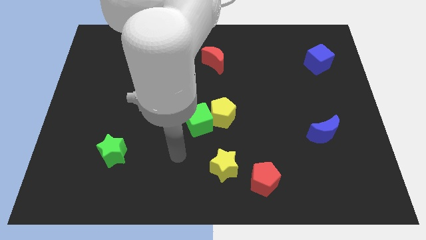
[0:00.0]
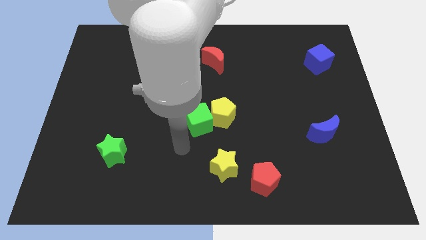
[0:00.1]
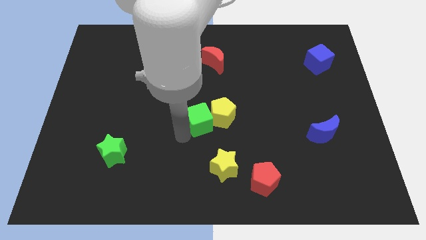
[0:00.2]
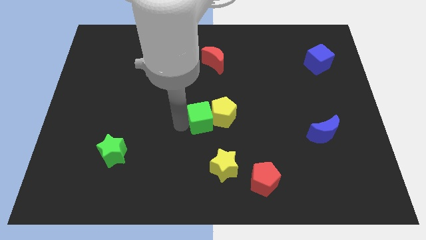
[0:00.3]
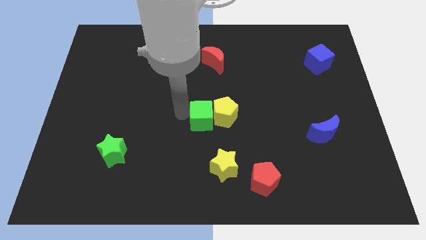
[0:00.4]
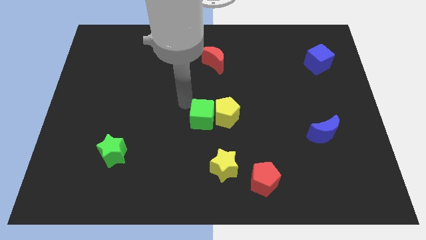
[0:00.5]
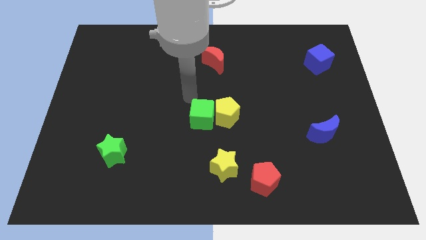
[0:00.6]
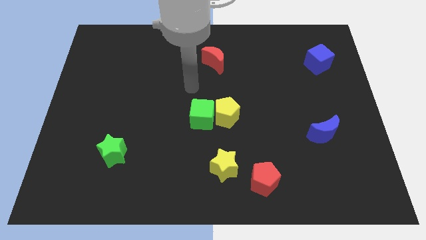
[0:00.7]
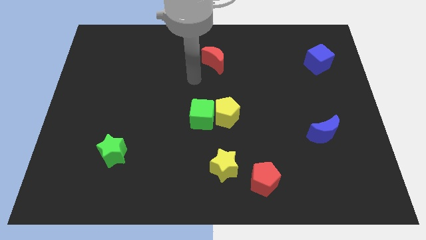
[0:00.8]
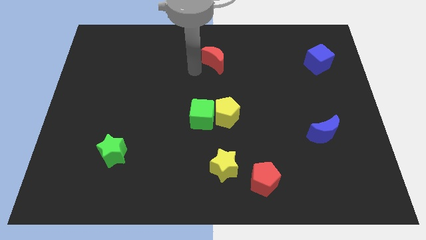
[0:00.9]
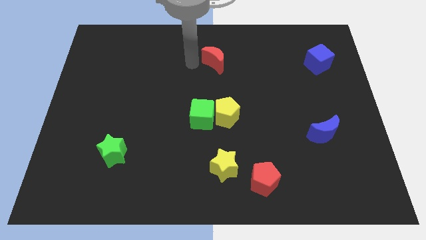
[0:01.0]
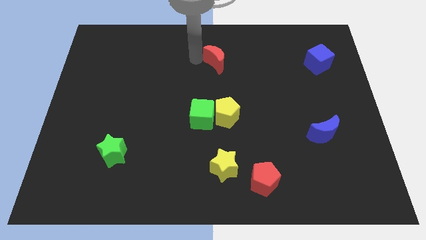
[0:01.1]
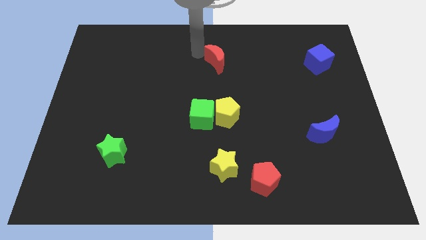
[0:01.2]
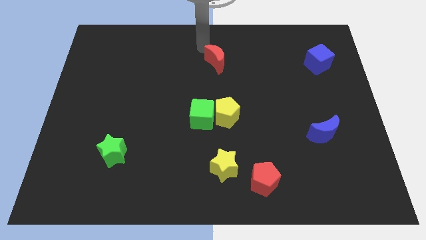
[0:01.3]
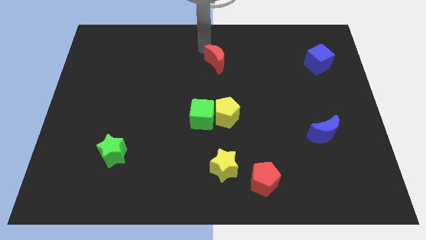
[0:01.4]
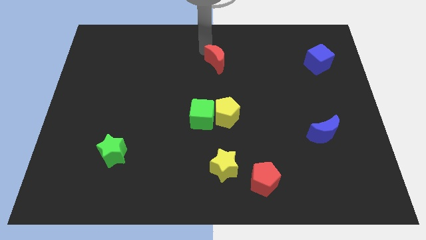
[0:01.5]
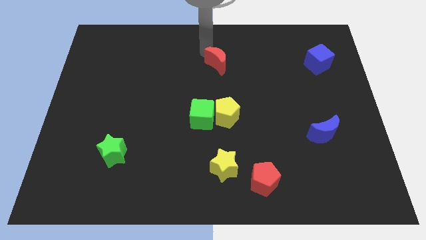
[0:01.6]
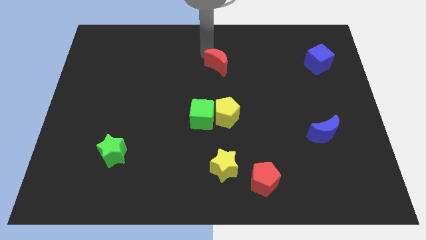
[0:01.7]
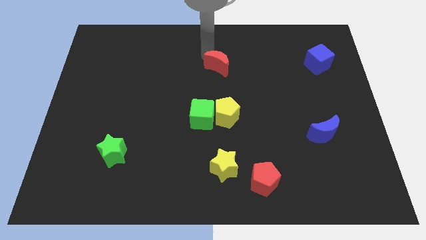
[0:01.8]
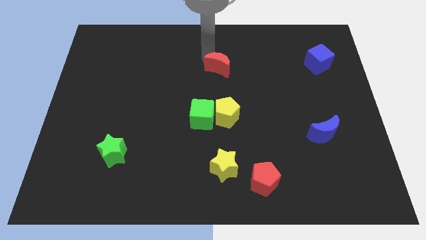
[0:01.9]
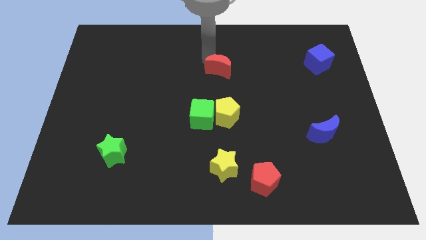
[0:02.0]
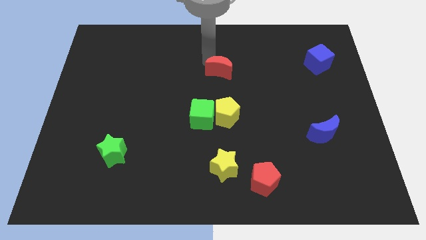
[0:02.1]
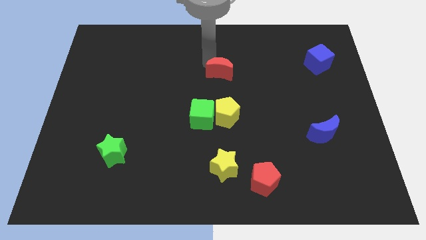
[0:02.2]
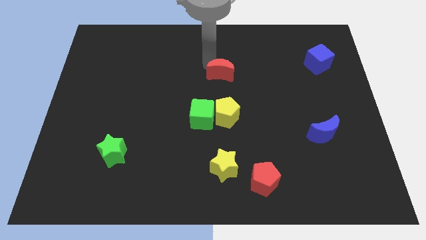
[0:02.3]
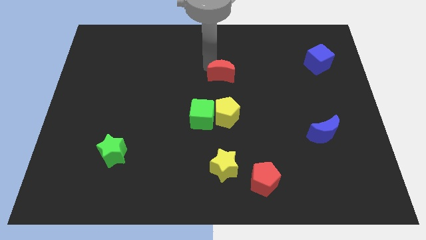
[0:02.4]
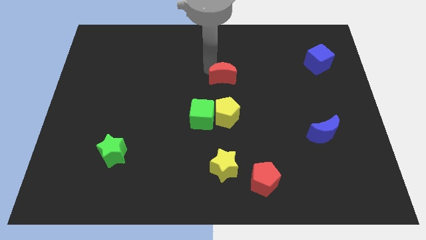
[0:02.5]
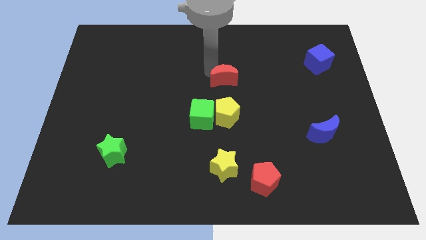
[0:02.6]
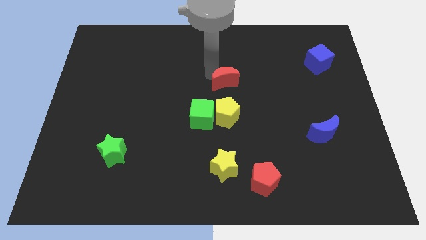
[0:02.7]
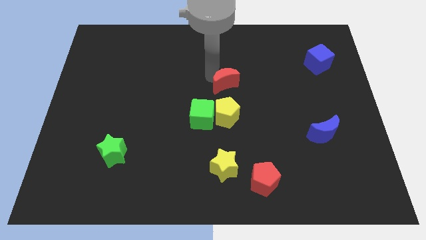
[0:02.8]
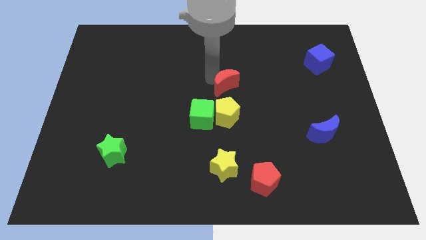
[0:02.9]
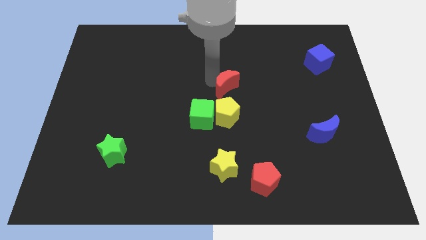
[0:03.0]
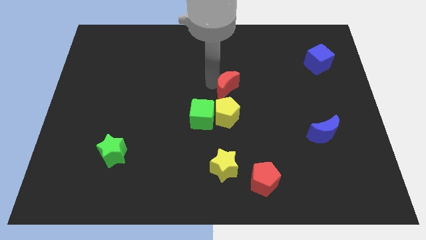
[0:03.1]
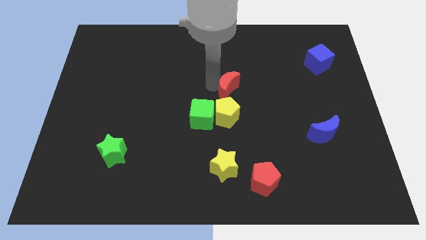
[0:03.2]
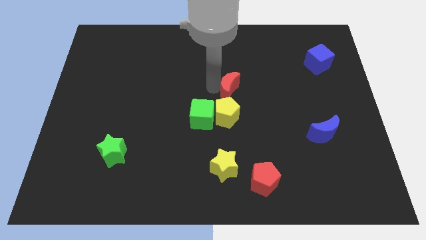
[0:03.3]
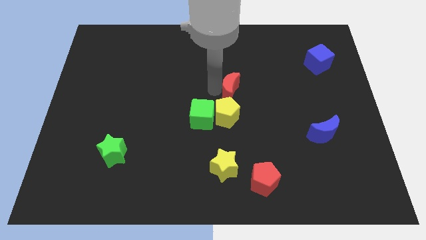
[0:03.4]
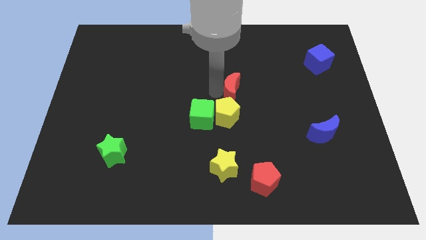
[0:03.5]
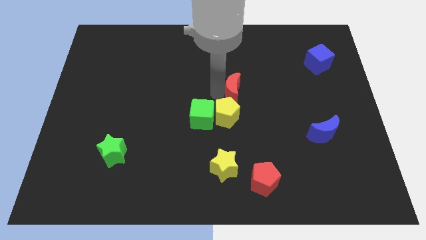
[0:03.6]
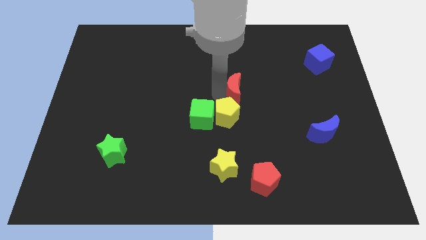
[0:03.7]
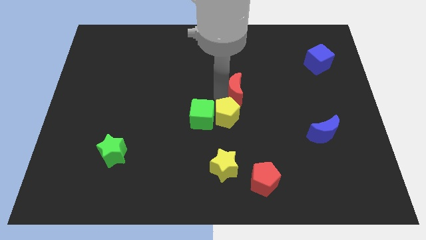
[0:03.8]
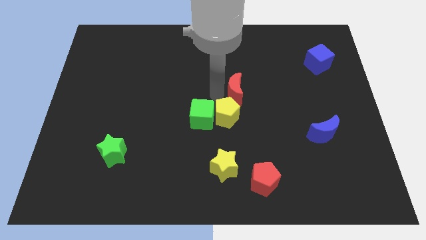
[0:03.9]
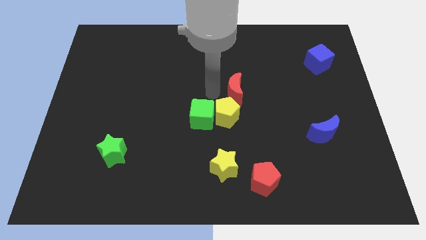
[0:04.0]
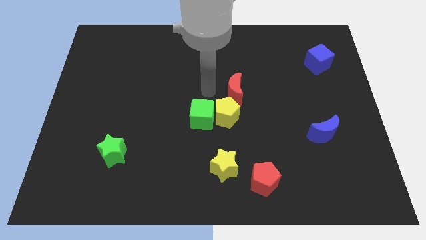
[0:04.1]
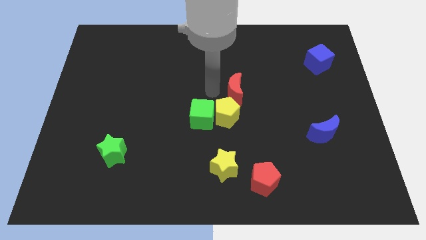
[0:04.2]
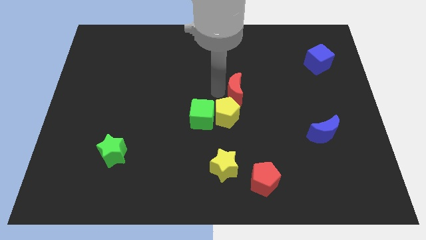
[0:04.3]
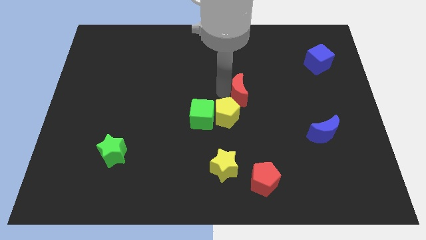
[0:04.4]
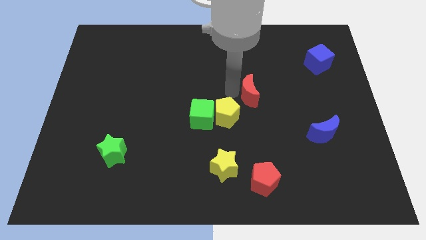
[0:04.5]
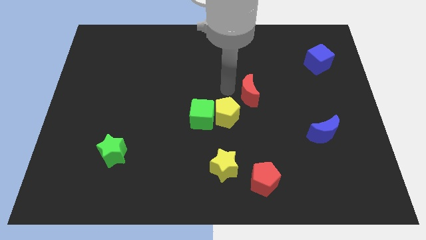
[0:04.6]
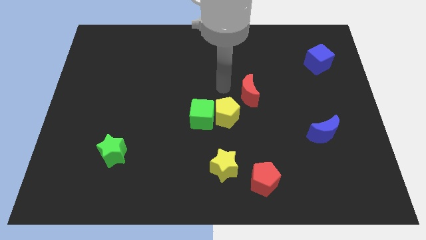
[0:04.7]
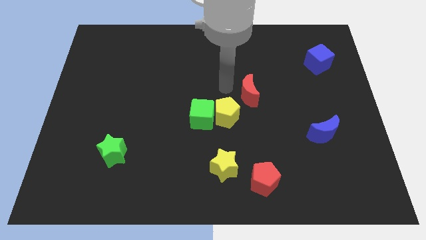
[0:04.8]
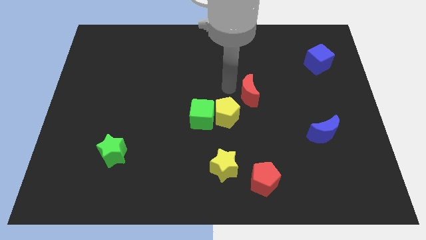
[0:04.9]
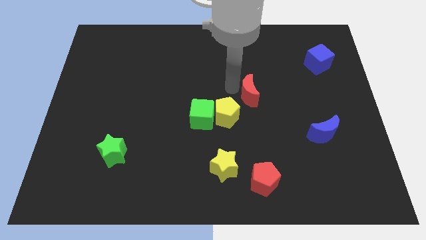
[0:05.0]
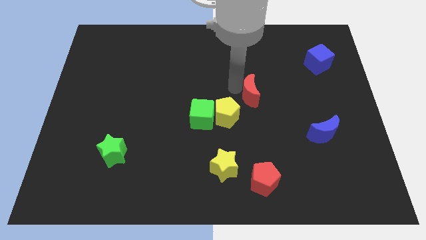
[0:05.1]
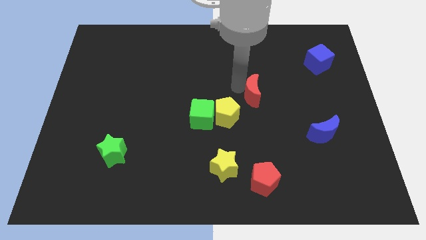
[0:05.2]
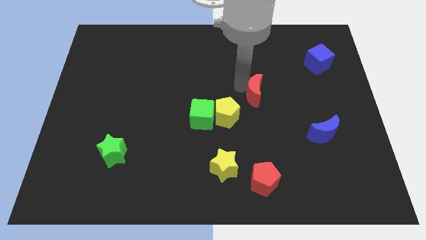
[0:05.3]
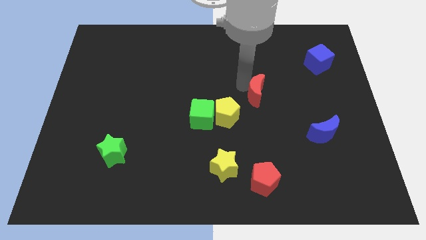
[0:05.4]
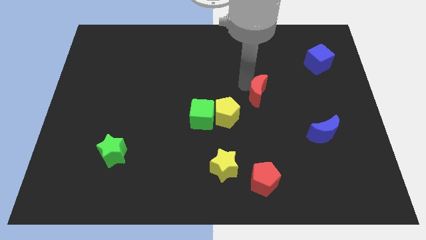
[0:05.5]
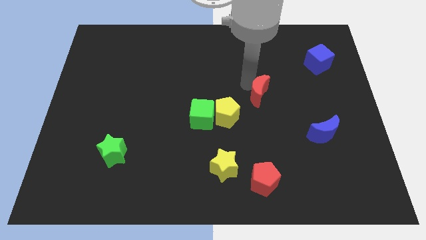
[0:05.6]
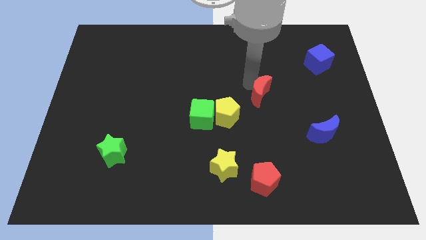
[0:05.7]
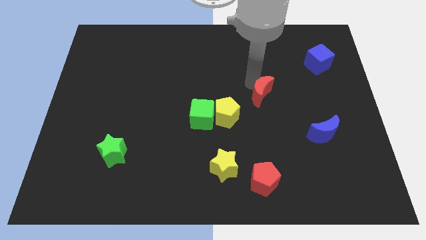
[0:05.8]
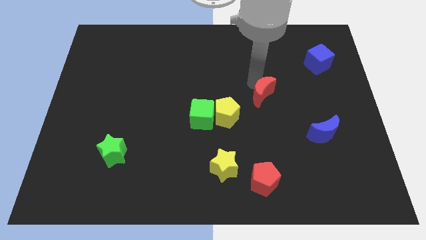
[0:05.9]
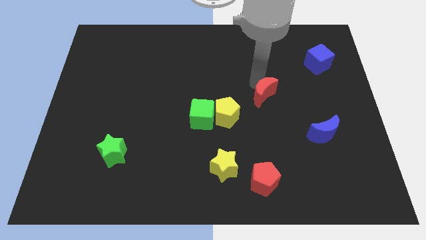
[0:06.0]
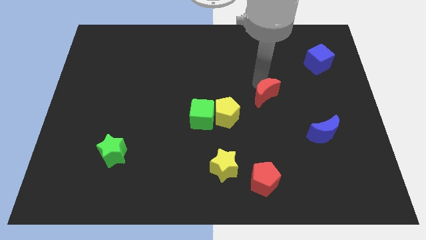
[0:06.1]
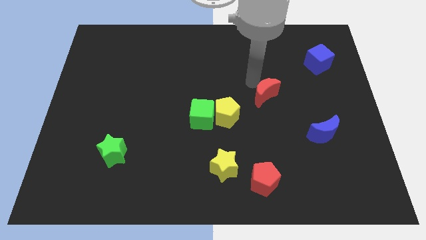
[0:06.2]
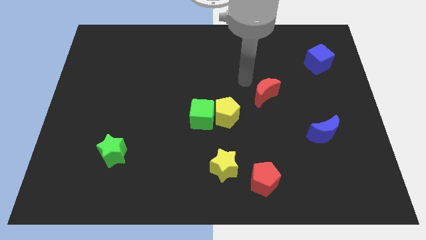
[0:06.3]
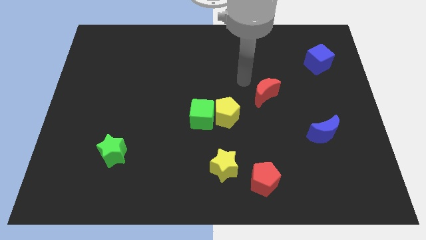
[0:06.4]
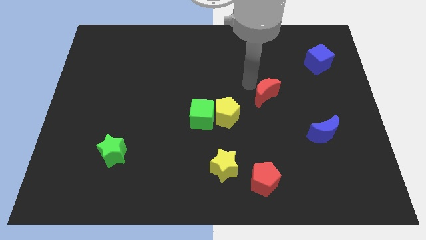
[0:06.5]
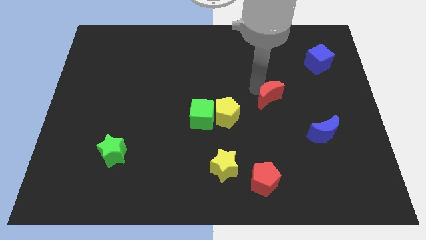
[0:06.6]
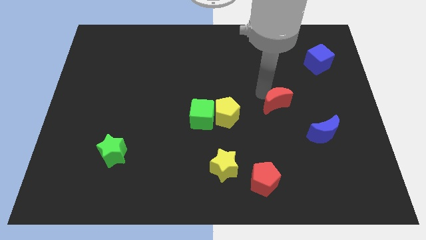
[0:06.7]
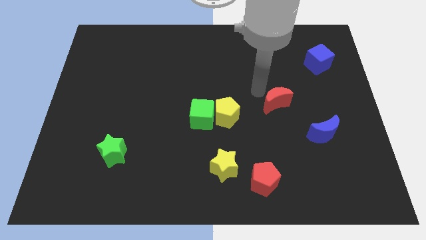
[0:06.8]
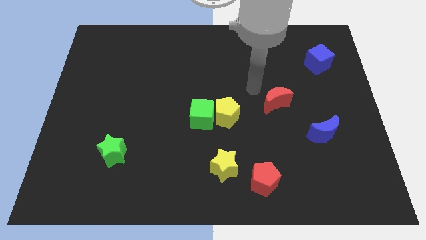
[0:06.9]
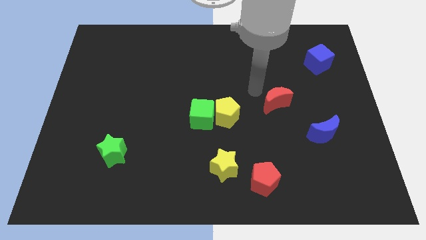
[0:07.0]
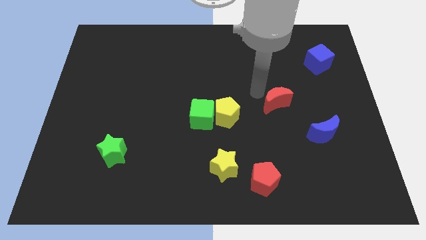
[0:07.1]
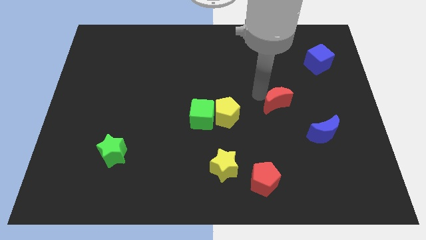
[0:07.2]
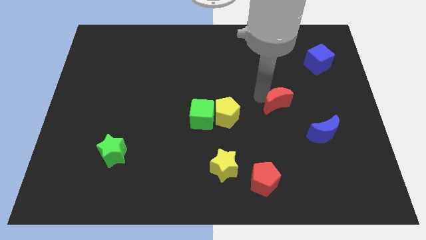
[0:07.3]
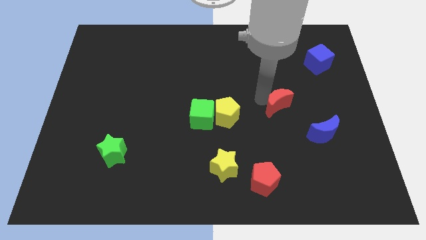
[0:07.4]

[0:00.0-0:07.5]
put the red moon diagonally up and to the left of the blue moon
